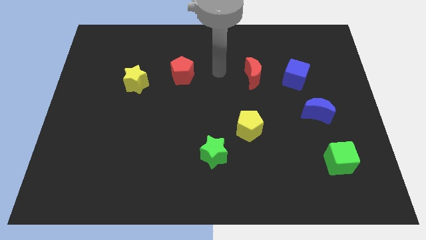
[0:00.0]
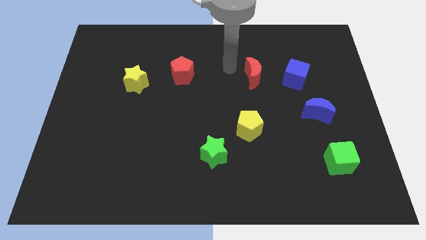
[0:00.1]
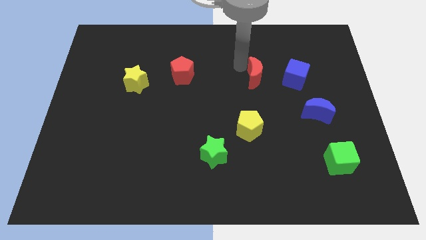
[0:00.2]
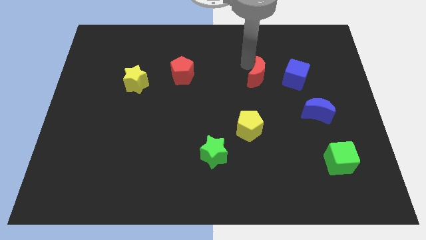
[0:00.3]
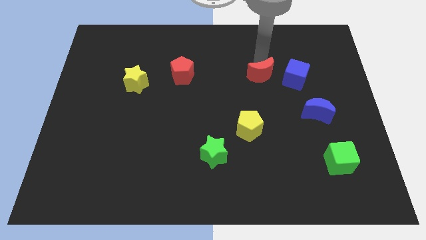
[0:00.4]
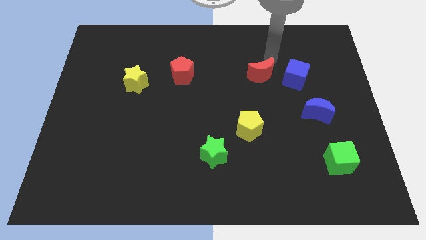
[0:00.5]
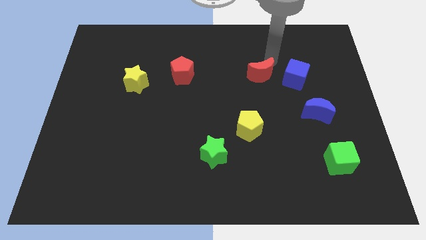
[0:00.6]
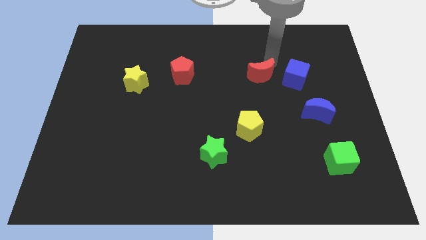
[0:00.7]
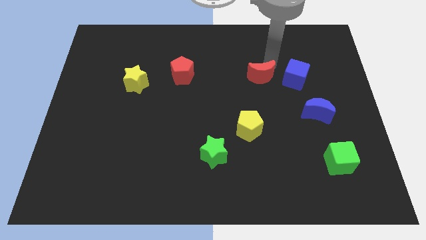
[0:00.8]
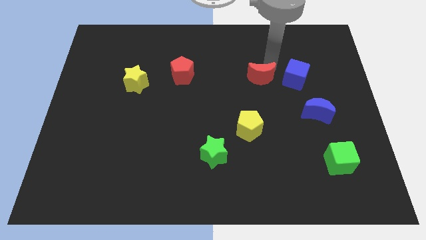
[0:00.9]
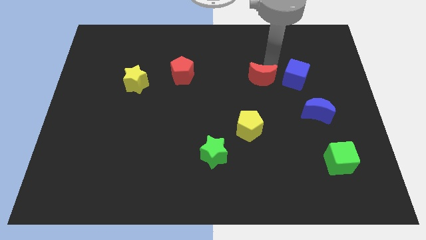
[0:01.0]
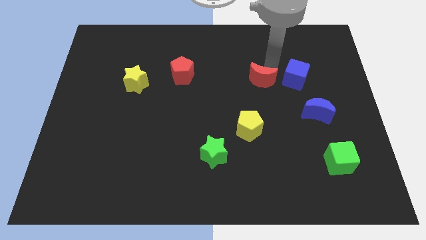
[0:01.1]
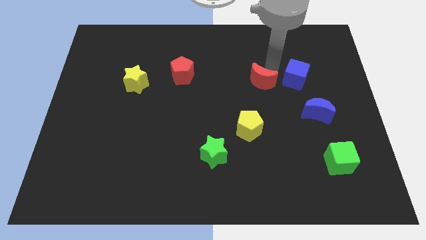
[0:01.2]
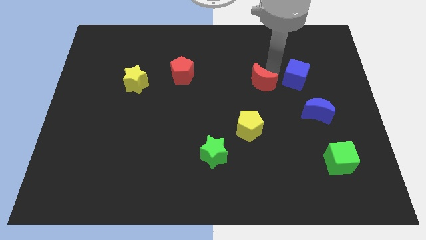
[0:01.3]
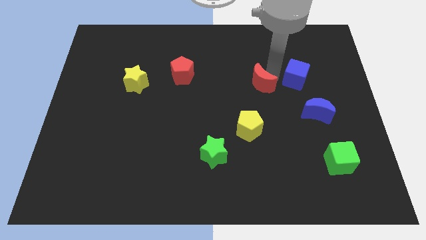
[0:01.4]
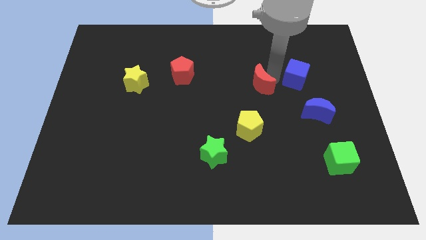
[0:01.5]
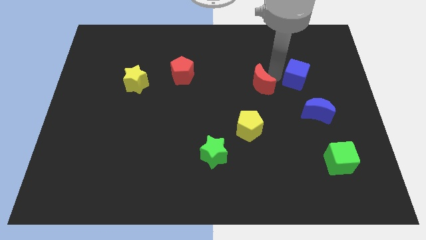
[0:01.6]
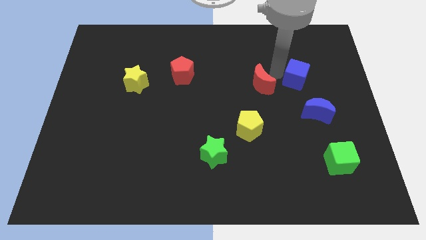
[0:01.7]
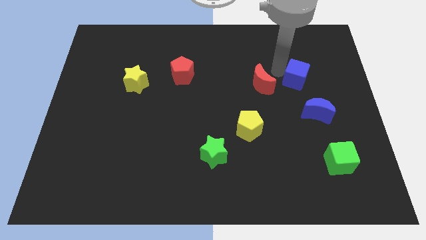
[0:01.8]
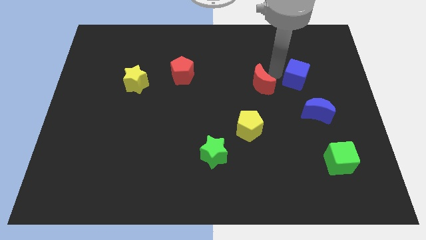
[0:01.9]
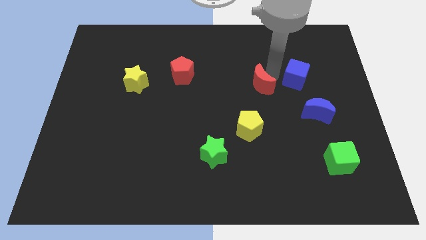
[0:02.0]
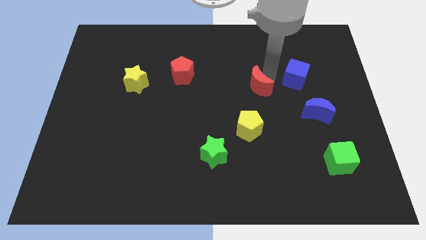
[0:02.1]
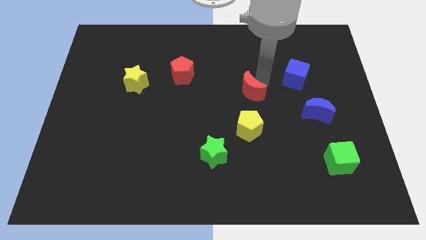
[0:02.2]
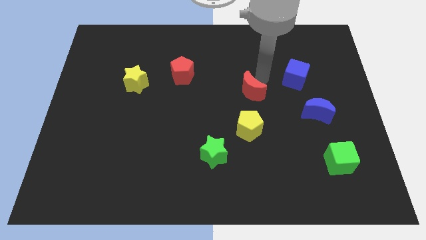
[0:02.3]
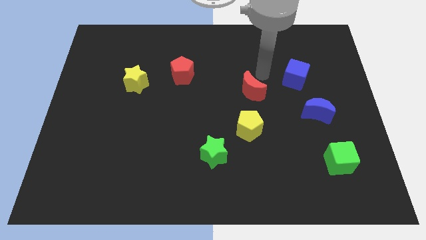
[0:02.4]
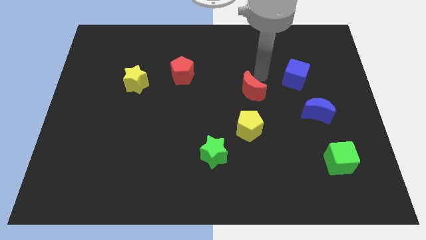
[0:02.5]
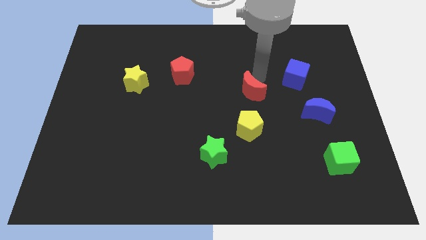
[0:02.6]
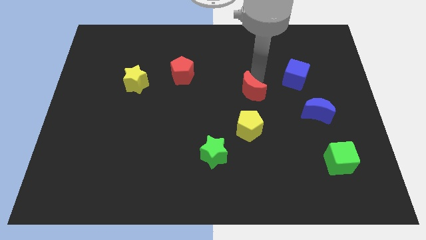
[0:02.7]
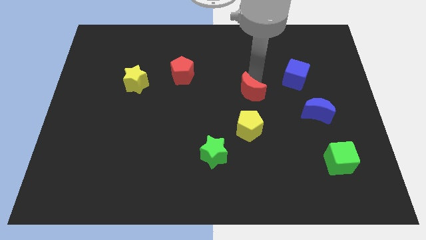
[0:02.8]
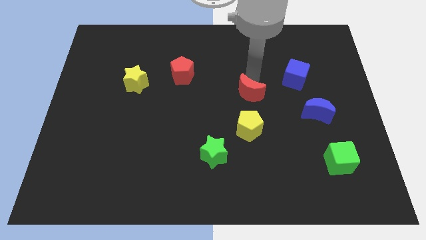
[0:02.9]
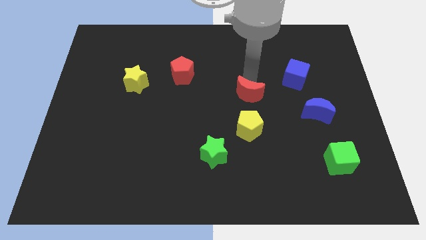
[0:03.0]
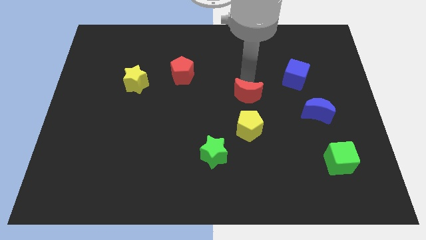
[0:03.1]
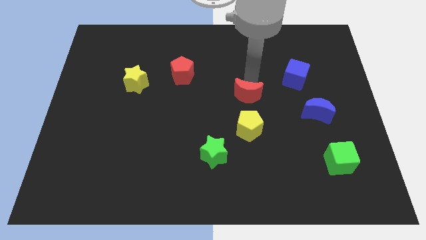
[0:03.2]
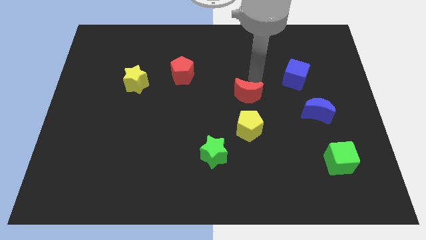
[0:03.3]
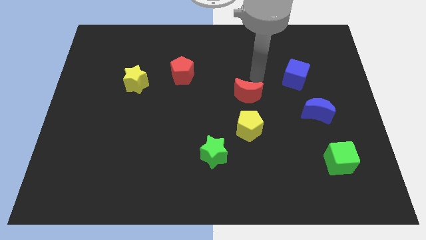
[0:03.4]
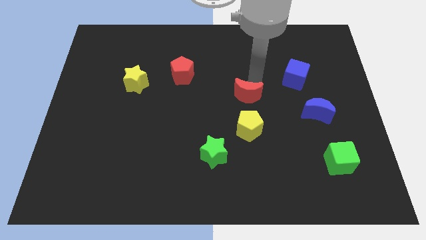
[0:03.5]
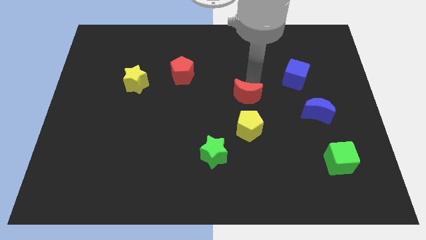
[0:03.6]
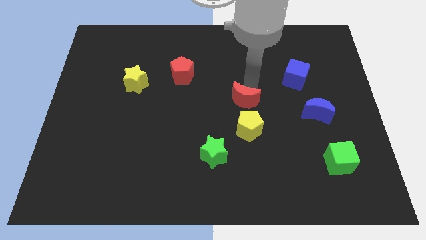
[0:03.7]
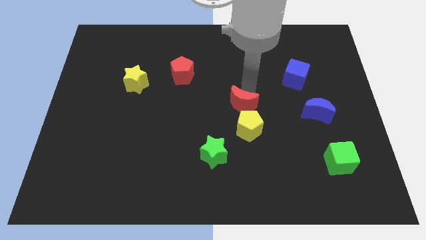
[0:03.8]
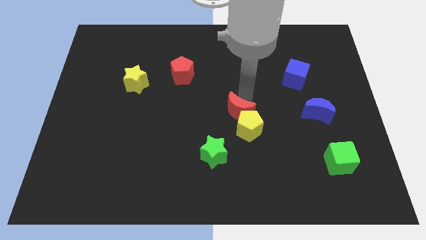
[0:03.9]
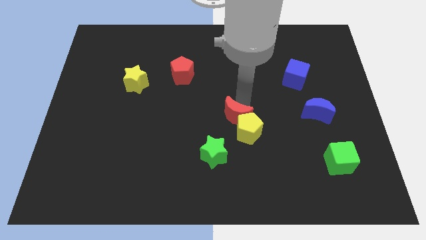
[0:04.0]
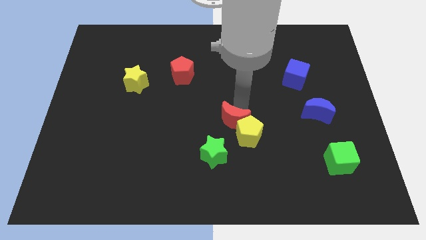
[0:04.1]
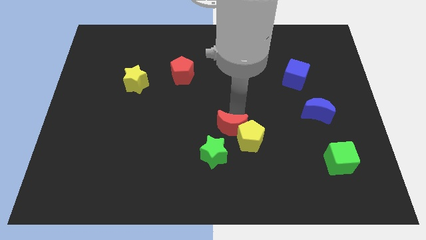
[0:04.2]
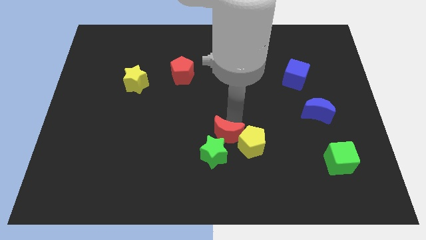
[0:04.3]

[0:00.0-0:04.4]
push the red moon next to the green star

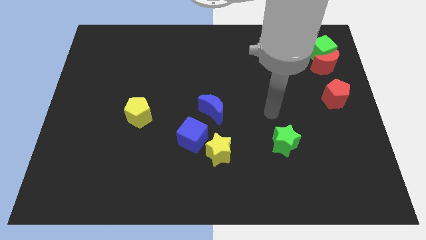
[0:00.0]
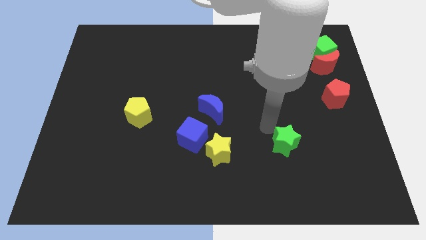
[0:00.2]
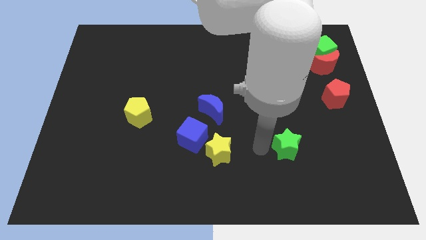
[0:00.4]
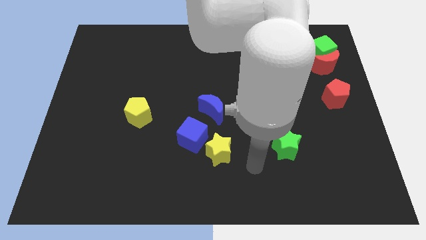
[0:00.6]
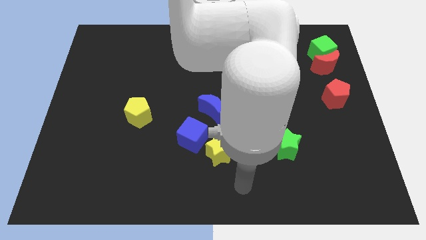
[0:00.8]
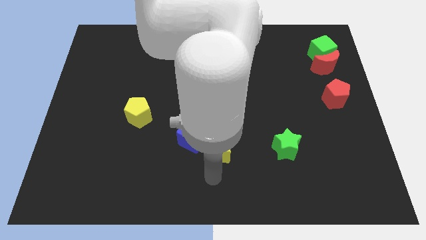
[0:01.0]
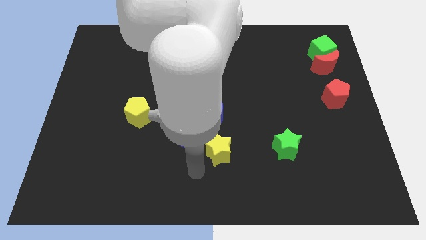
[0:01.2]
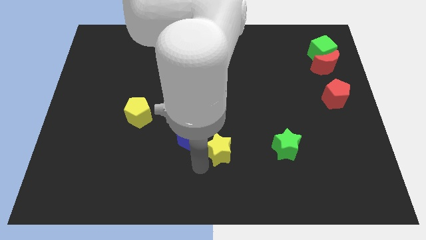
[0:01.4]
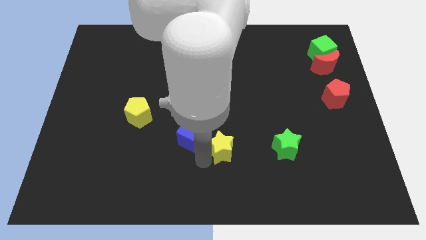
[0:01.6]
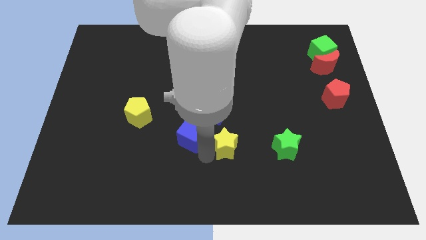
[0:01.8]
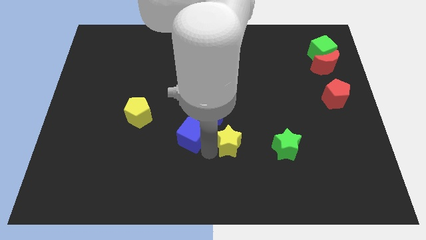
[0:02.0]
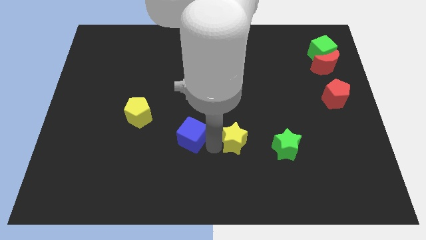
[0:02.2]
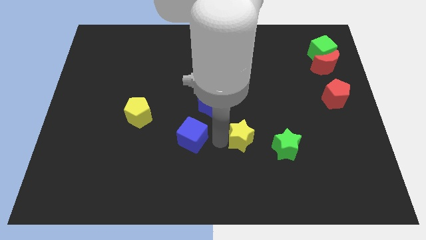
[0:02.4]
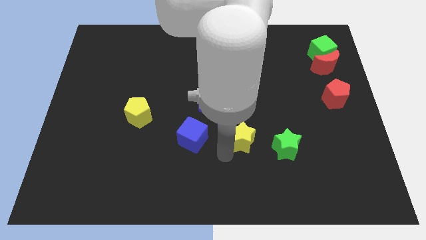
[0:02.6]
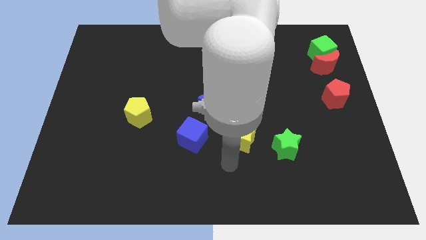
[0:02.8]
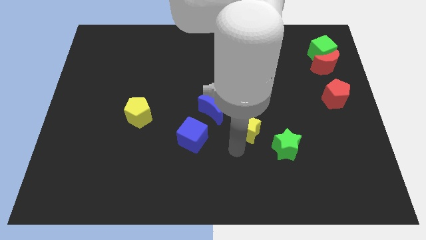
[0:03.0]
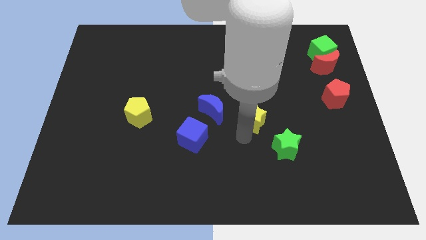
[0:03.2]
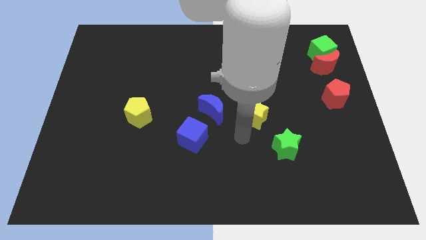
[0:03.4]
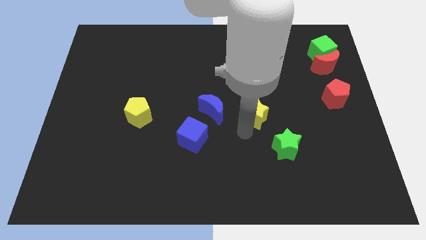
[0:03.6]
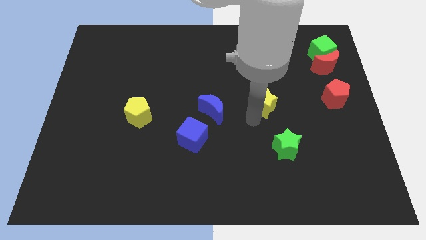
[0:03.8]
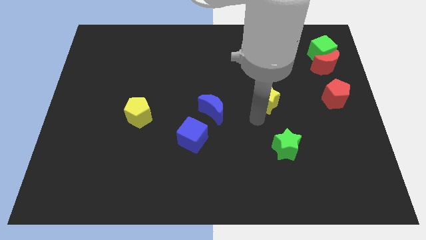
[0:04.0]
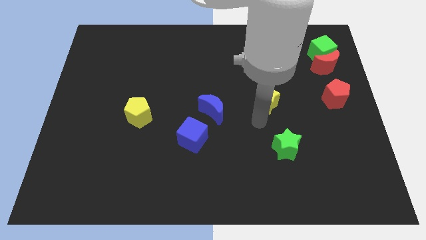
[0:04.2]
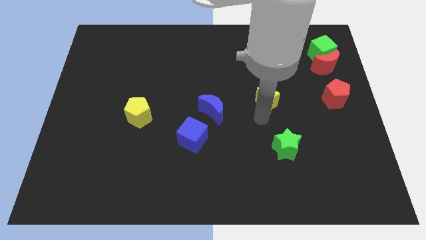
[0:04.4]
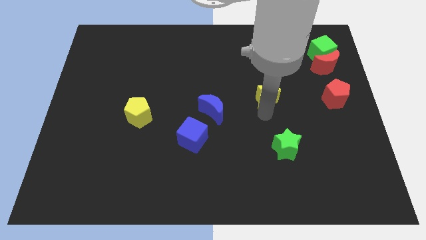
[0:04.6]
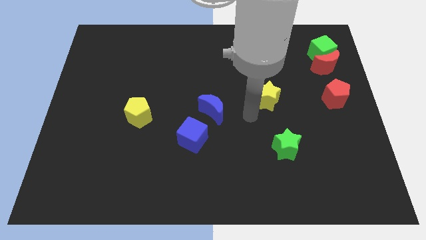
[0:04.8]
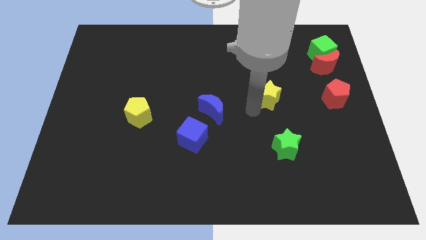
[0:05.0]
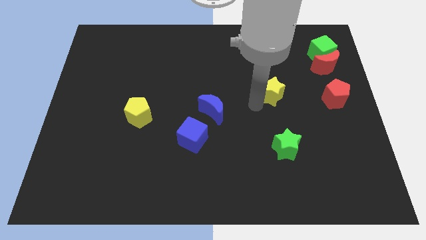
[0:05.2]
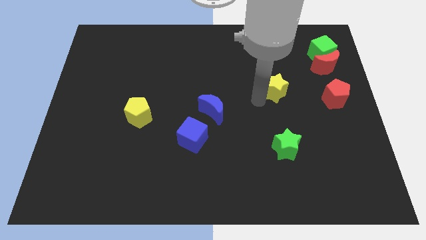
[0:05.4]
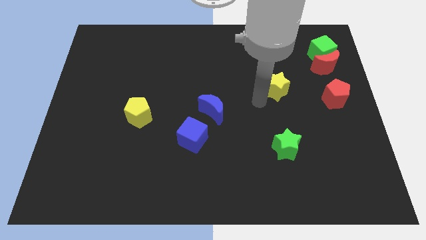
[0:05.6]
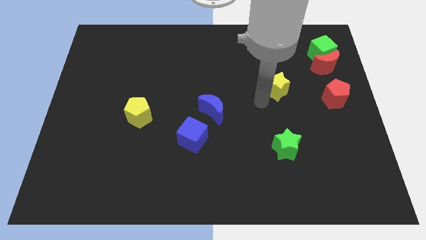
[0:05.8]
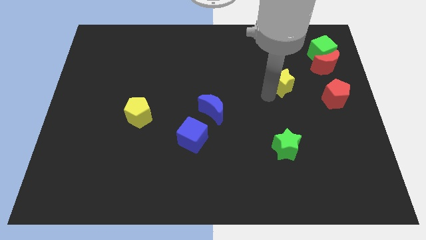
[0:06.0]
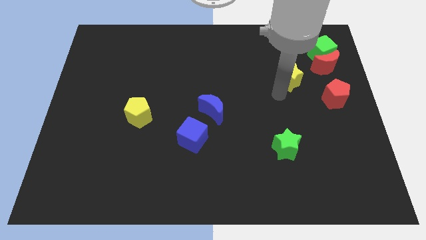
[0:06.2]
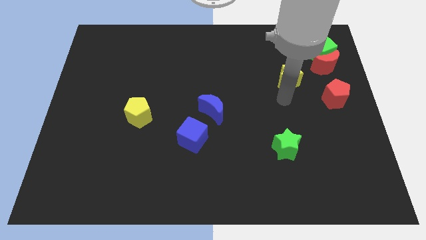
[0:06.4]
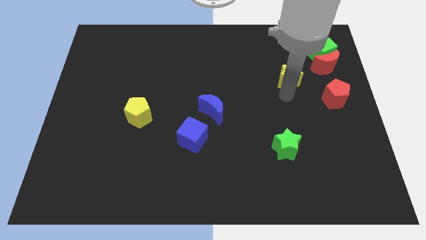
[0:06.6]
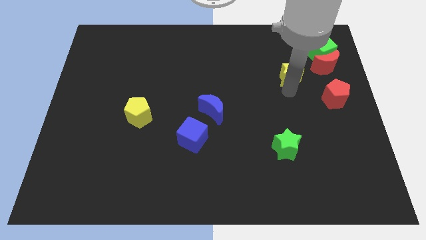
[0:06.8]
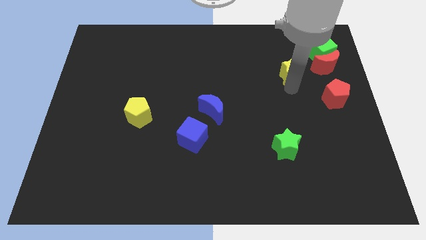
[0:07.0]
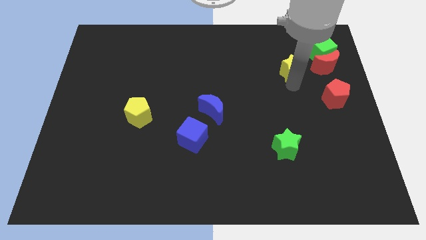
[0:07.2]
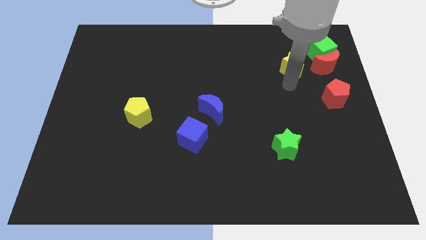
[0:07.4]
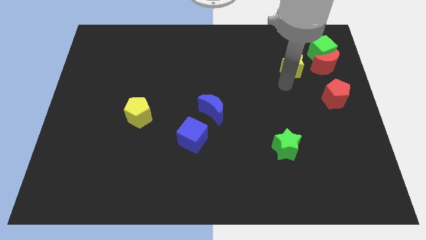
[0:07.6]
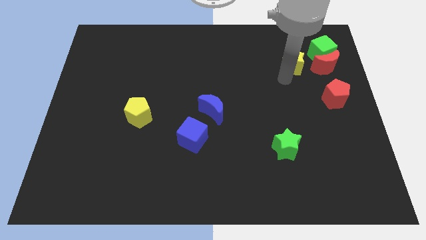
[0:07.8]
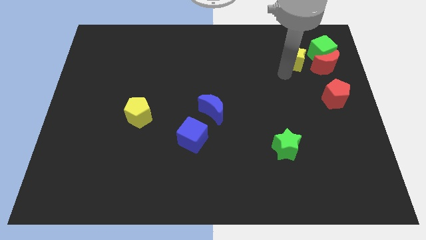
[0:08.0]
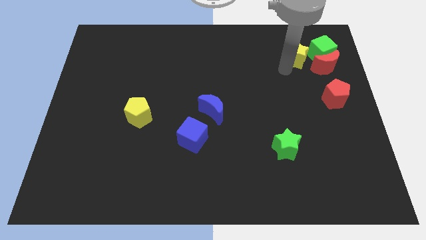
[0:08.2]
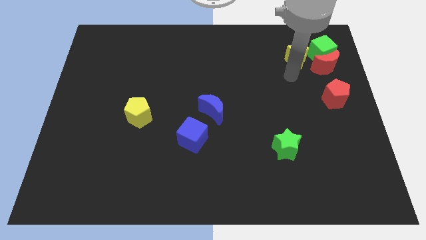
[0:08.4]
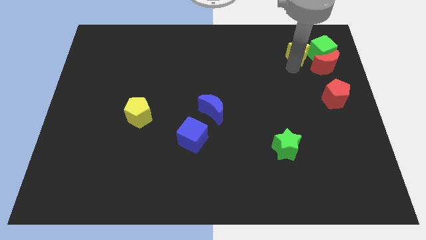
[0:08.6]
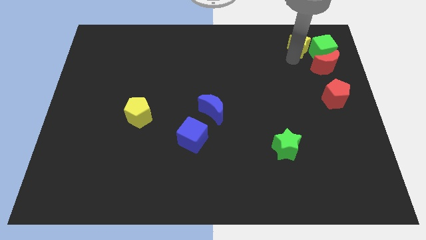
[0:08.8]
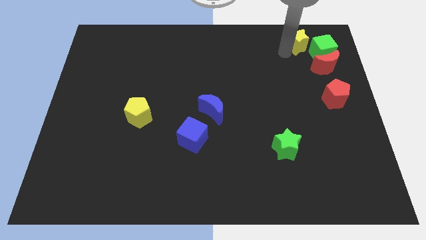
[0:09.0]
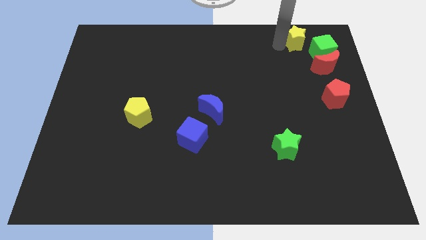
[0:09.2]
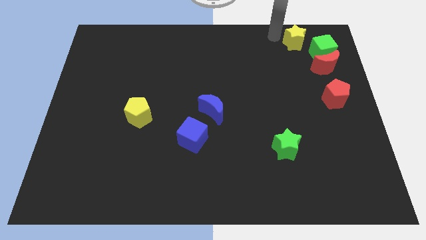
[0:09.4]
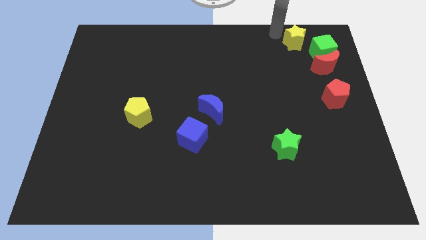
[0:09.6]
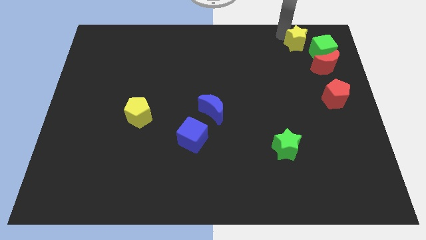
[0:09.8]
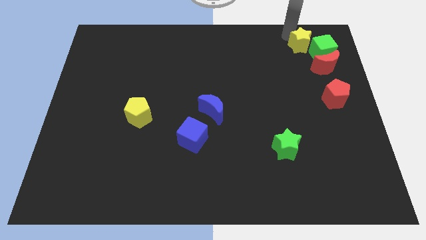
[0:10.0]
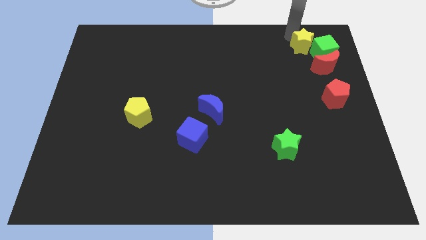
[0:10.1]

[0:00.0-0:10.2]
slide the yellow star next to the green cube
